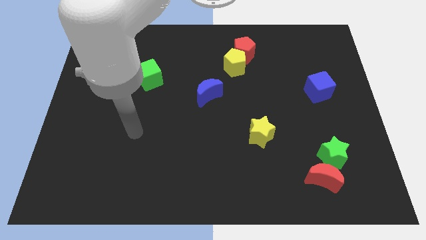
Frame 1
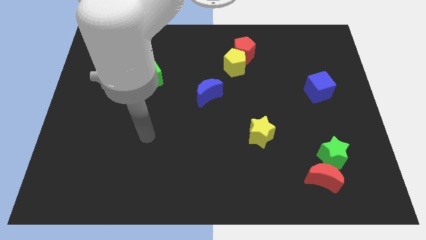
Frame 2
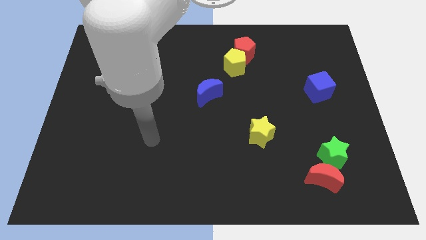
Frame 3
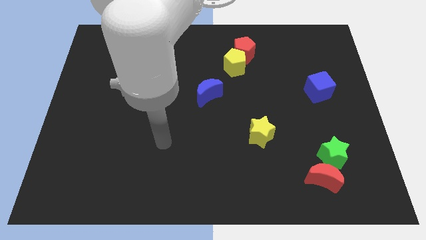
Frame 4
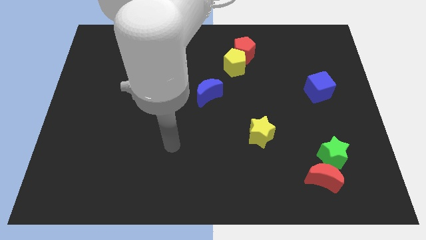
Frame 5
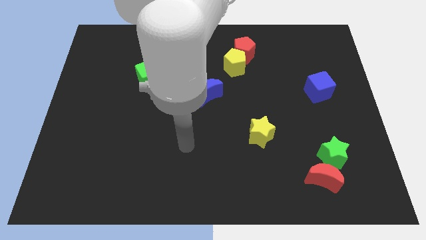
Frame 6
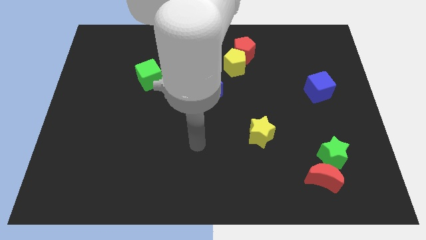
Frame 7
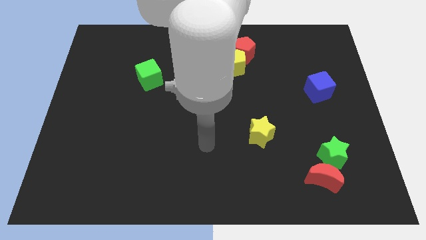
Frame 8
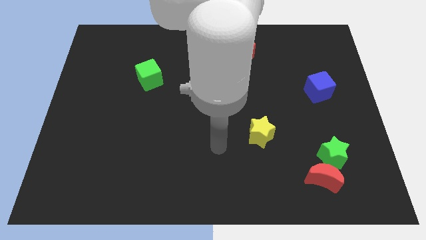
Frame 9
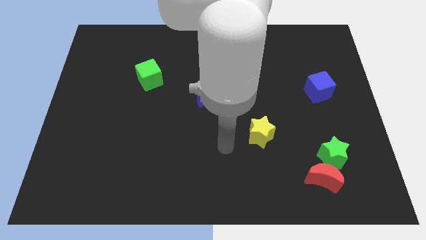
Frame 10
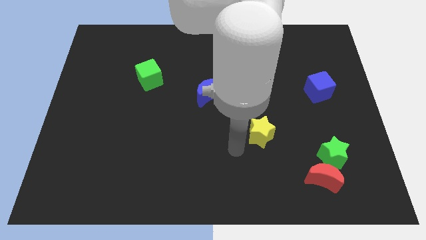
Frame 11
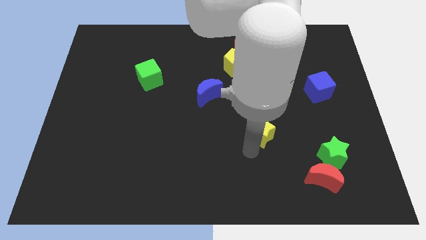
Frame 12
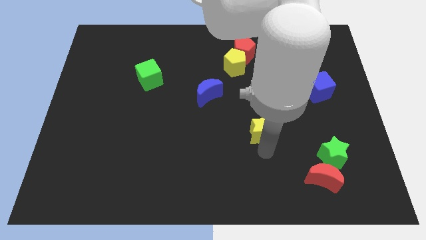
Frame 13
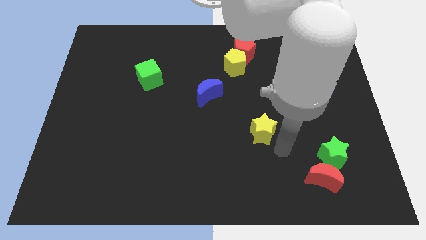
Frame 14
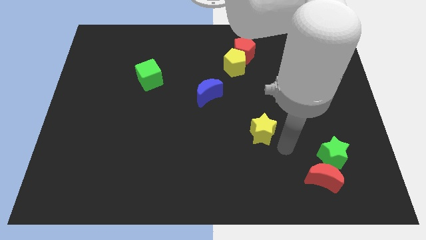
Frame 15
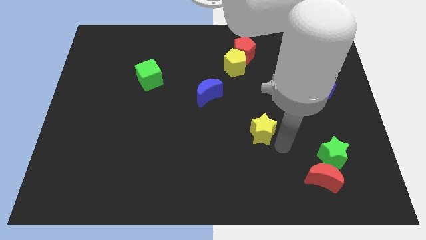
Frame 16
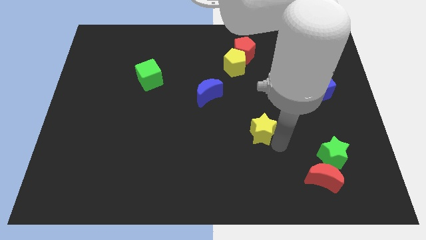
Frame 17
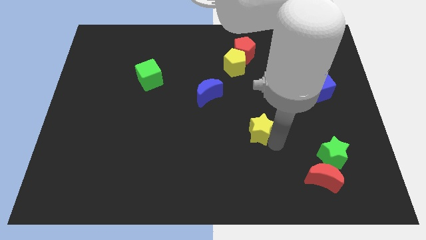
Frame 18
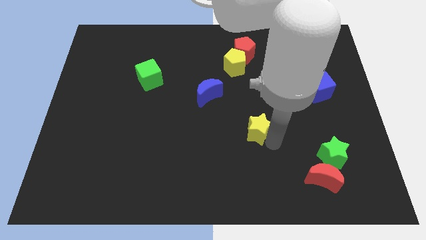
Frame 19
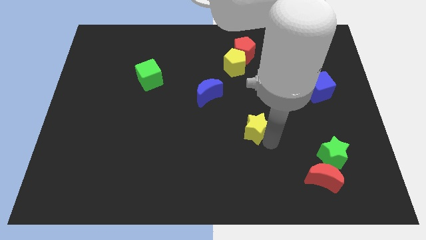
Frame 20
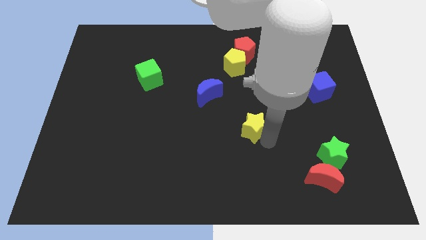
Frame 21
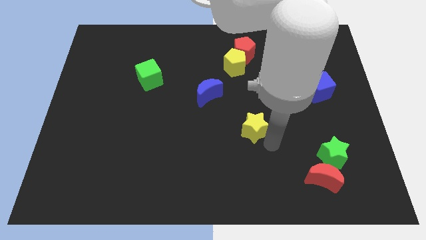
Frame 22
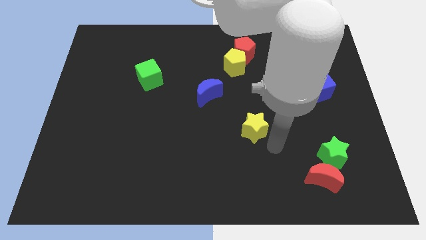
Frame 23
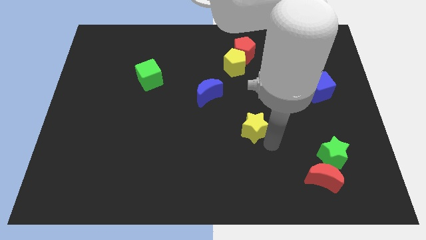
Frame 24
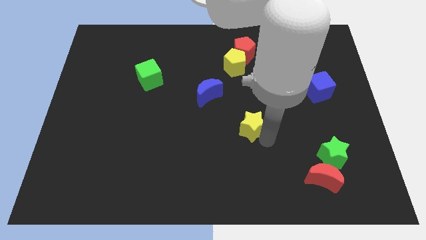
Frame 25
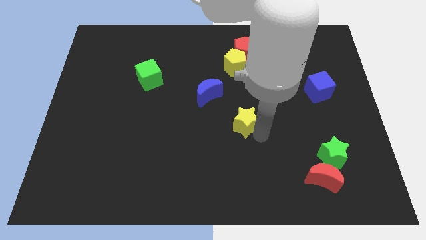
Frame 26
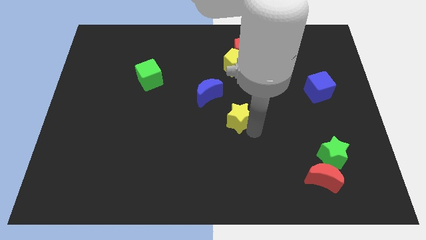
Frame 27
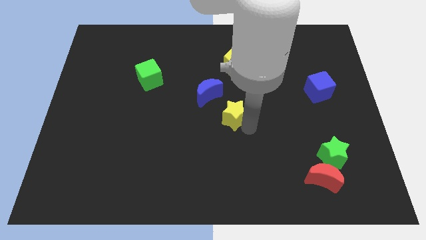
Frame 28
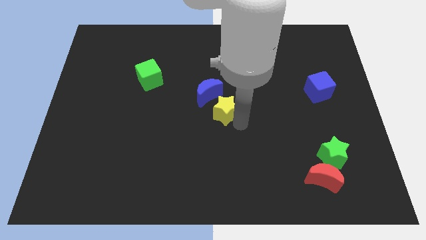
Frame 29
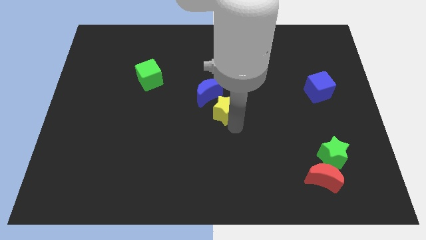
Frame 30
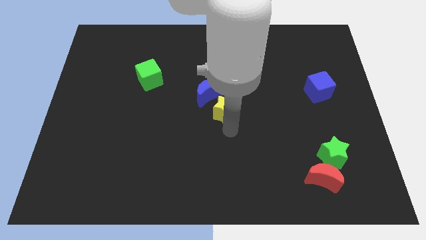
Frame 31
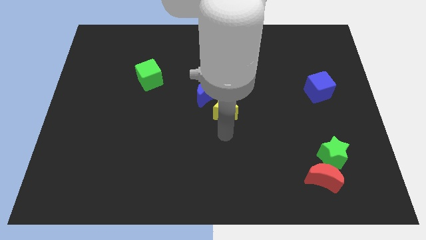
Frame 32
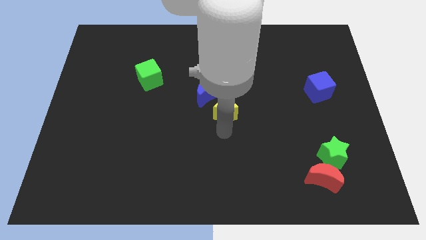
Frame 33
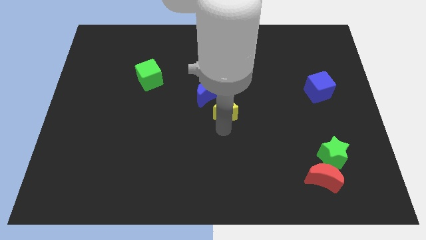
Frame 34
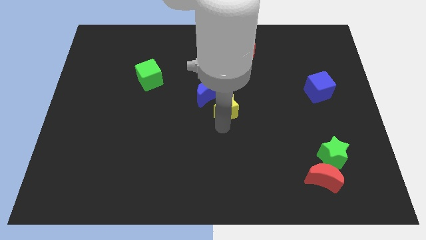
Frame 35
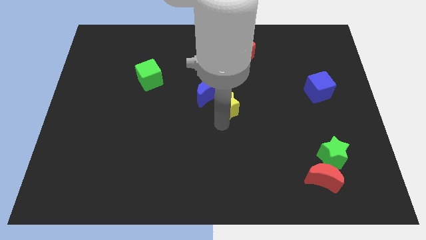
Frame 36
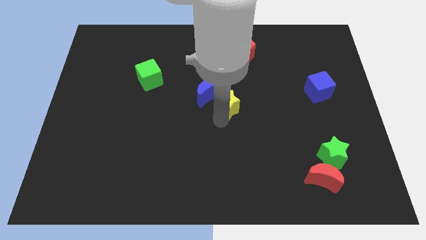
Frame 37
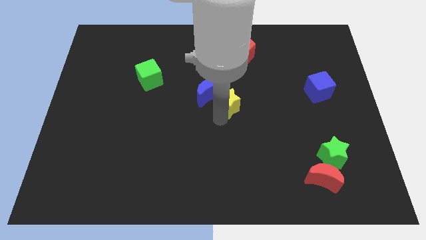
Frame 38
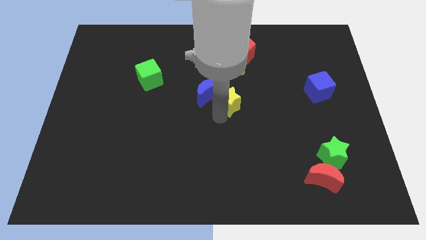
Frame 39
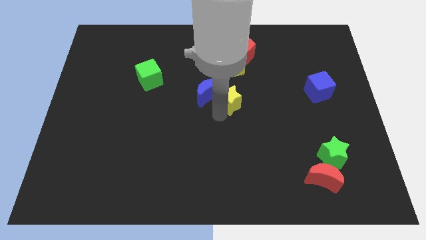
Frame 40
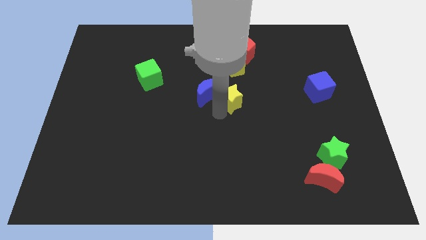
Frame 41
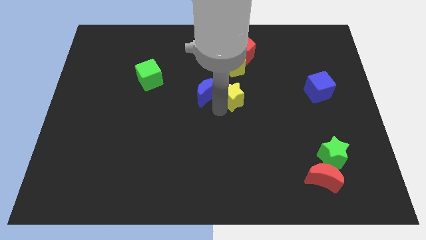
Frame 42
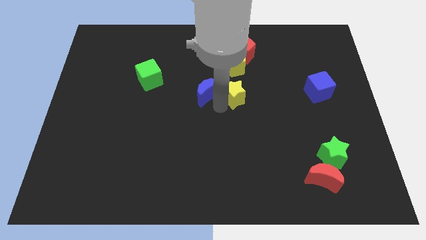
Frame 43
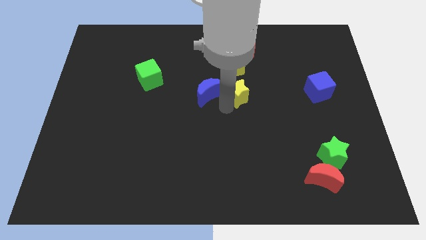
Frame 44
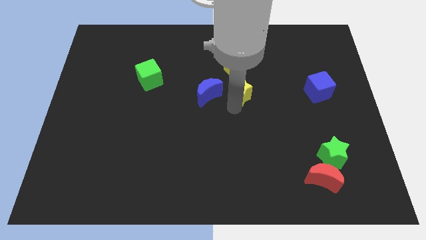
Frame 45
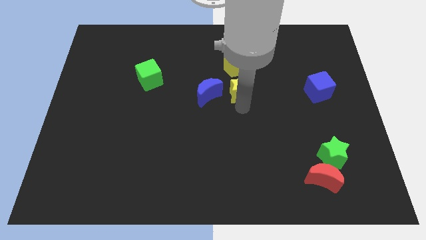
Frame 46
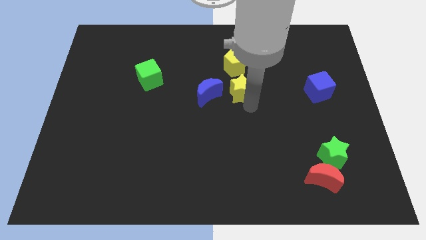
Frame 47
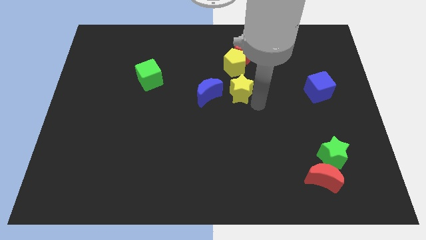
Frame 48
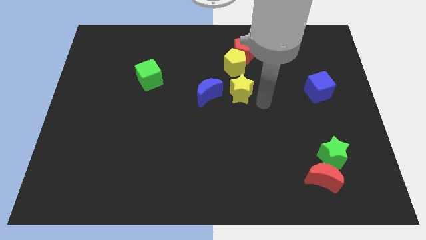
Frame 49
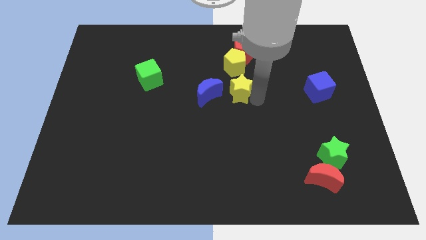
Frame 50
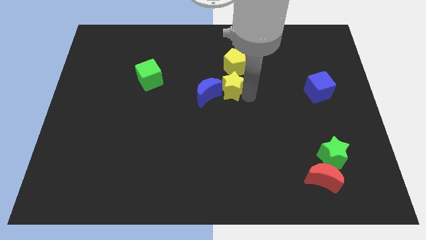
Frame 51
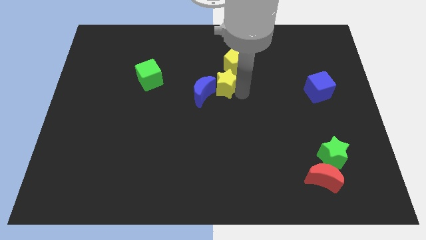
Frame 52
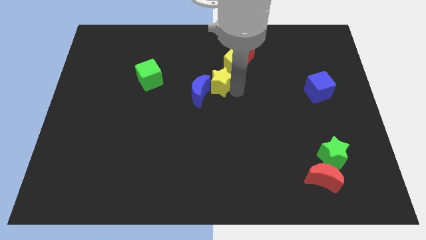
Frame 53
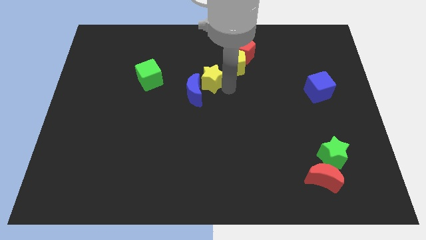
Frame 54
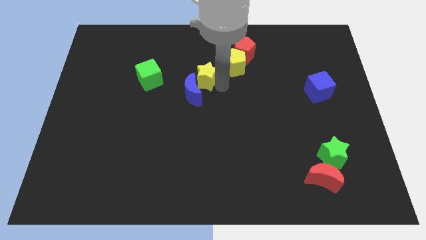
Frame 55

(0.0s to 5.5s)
move the yellow star left of the yellow pentagon

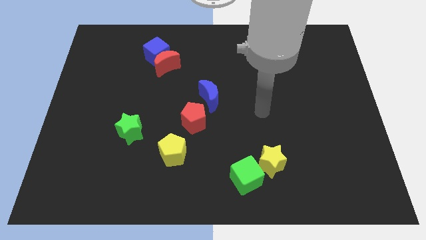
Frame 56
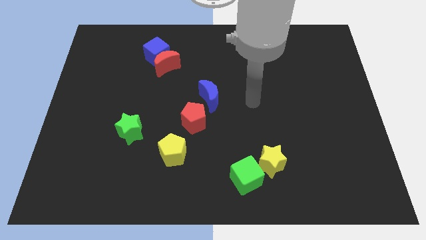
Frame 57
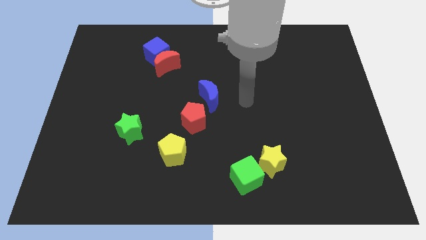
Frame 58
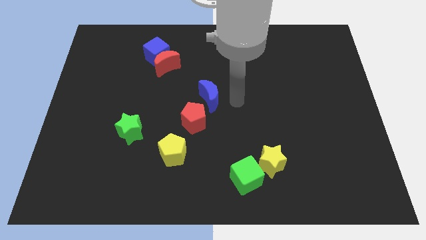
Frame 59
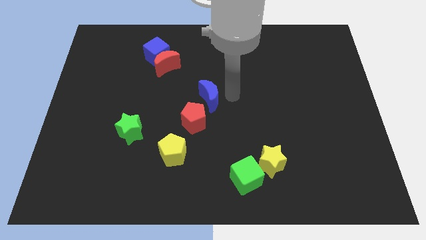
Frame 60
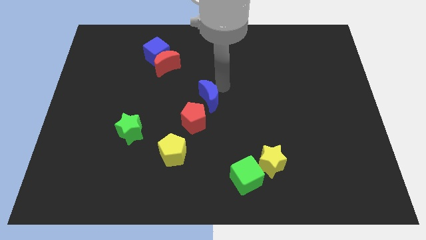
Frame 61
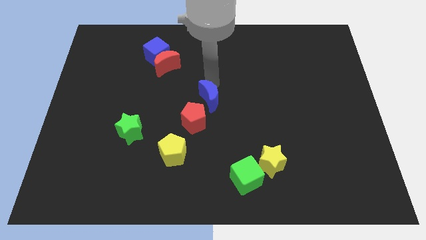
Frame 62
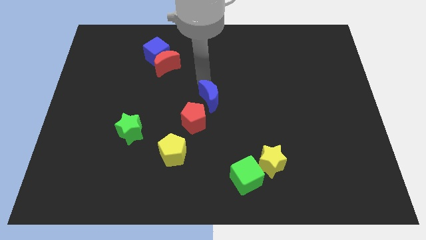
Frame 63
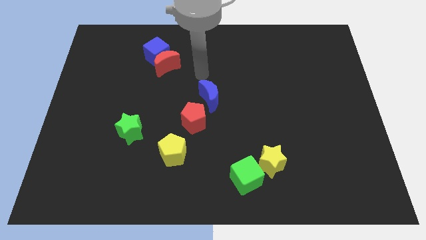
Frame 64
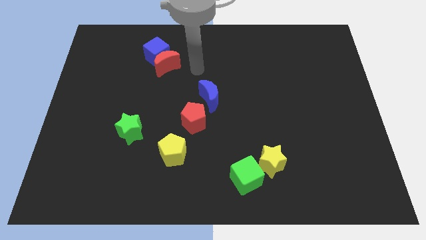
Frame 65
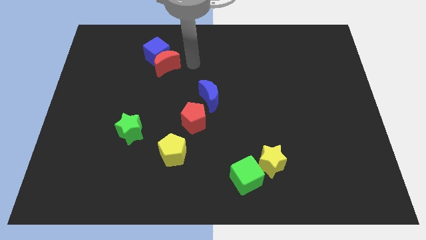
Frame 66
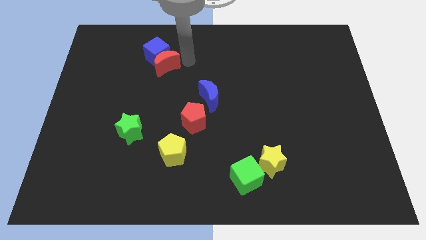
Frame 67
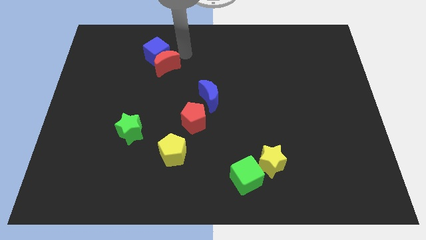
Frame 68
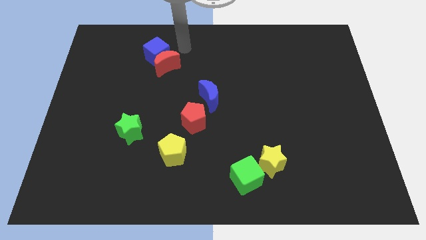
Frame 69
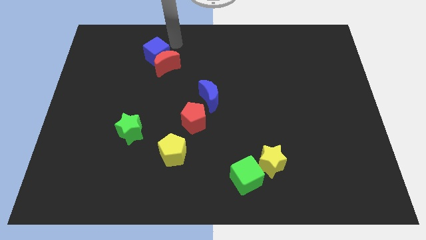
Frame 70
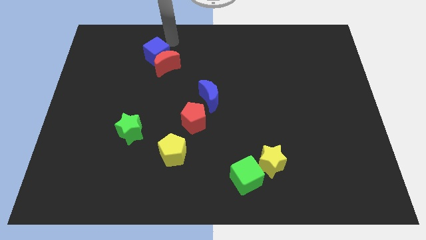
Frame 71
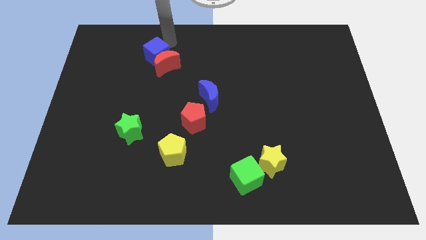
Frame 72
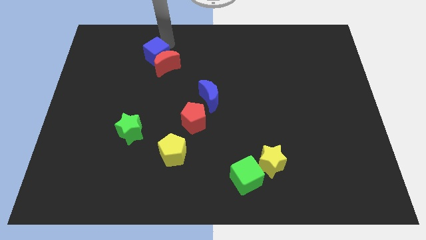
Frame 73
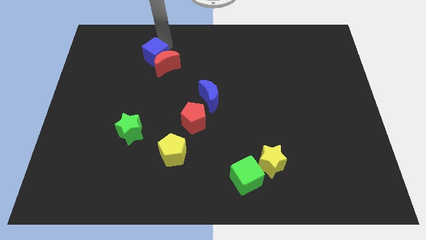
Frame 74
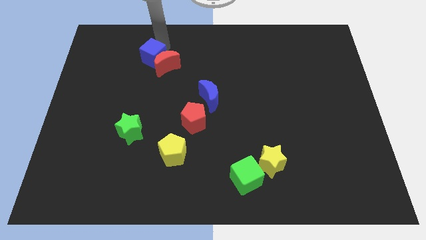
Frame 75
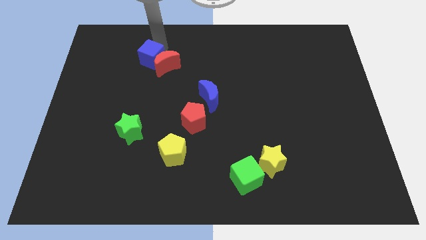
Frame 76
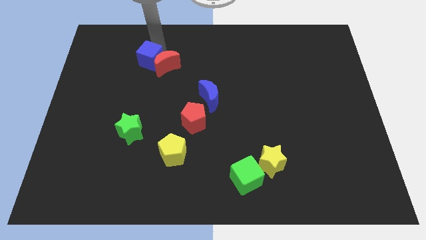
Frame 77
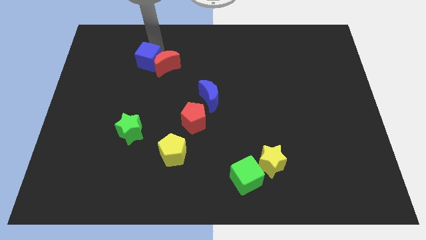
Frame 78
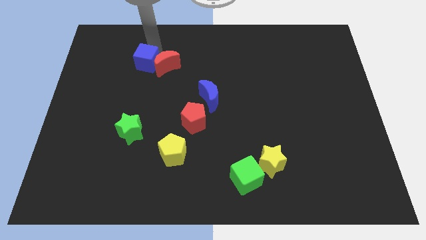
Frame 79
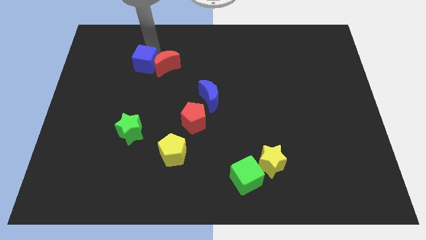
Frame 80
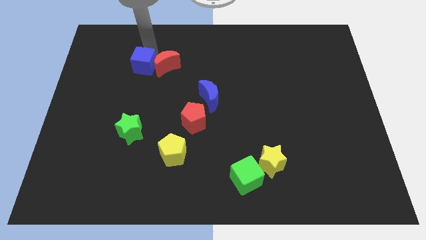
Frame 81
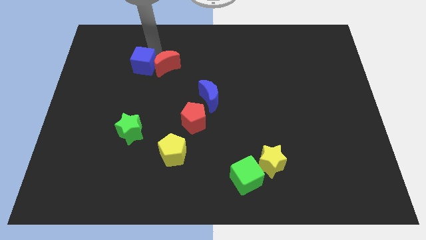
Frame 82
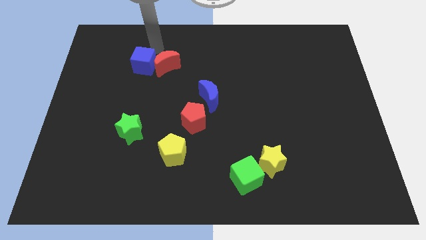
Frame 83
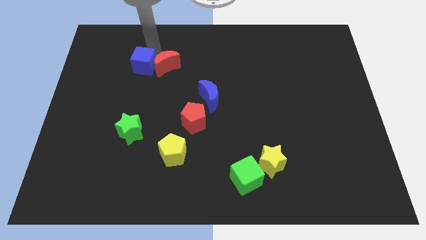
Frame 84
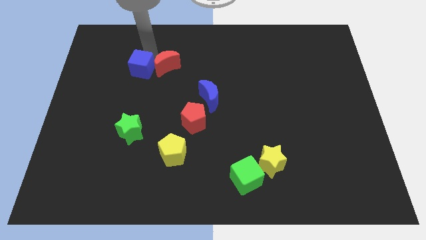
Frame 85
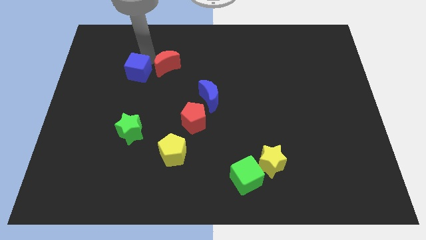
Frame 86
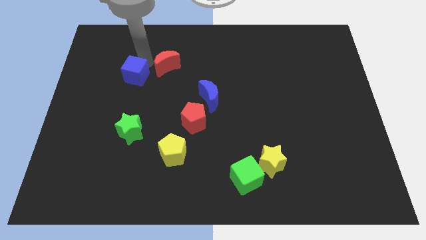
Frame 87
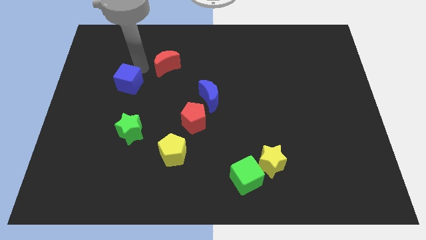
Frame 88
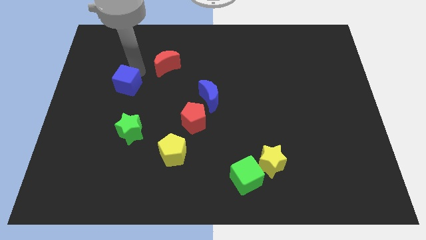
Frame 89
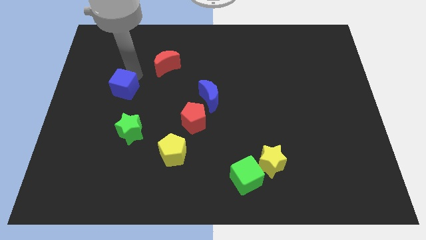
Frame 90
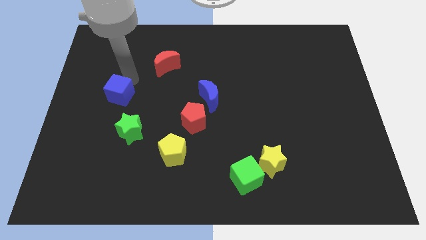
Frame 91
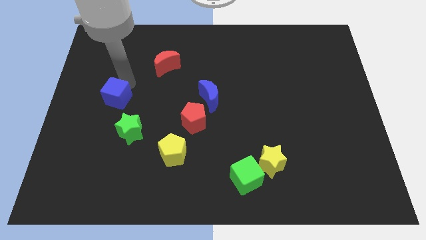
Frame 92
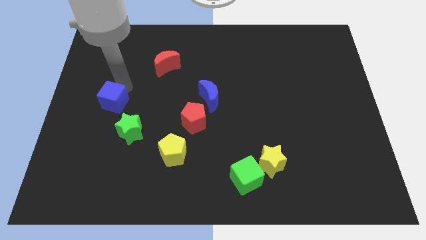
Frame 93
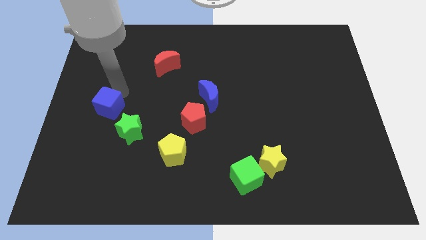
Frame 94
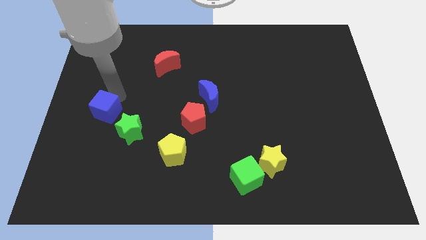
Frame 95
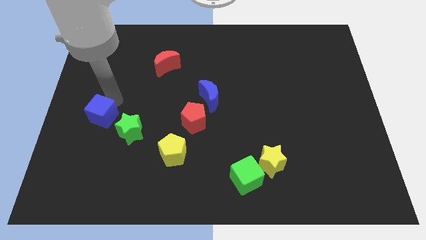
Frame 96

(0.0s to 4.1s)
push the blue cube just left of the green star
